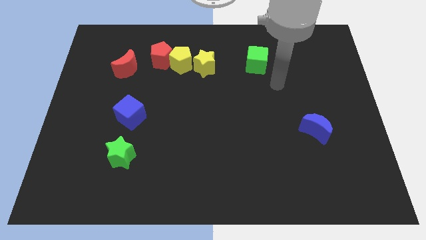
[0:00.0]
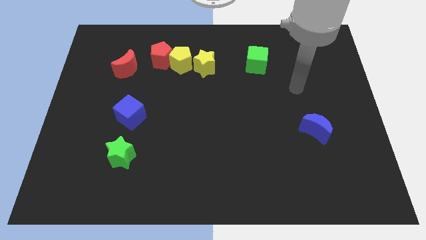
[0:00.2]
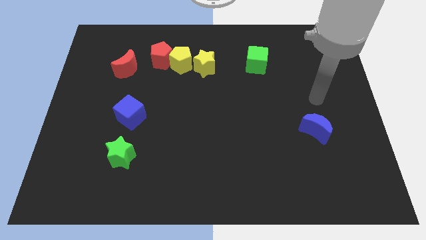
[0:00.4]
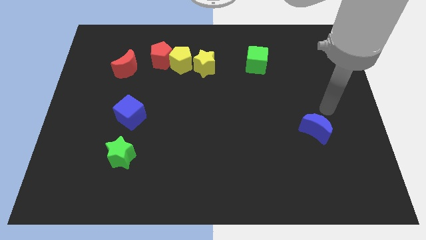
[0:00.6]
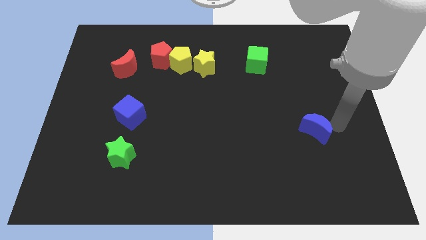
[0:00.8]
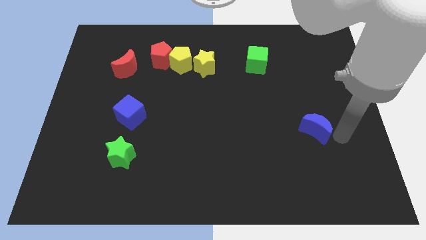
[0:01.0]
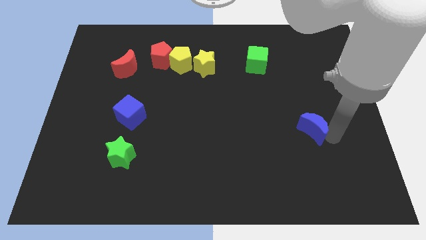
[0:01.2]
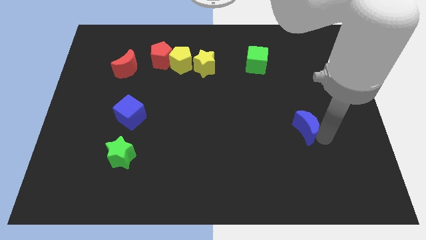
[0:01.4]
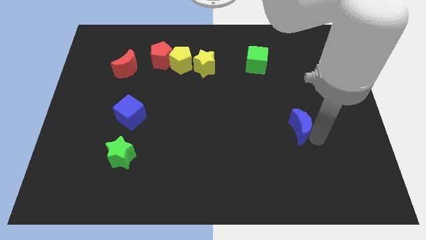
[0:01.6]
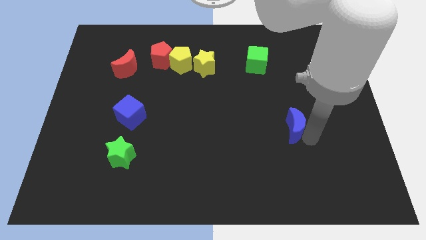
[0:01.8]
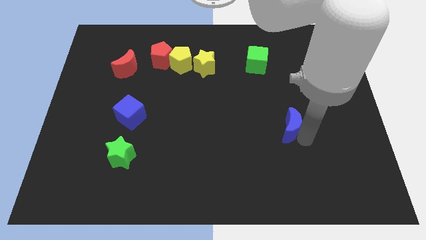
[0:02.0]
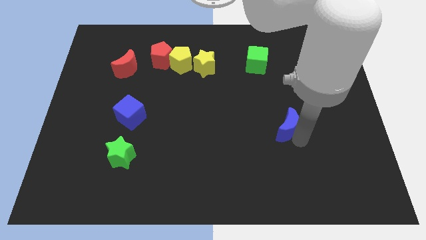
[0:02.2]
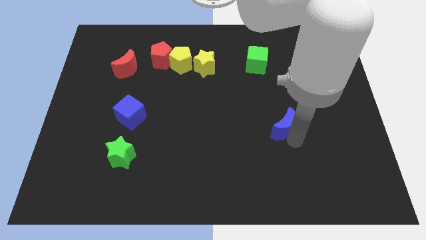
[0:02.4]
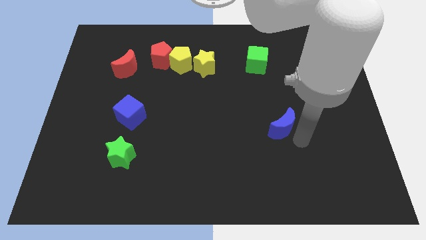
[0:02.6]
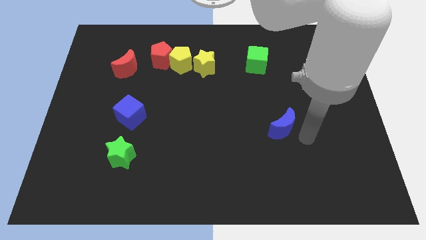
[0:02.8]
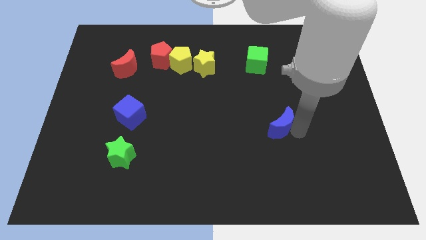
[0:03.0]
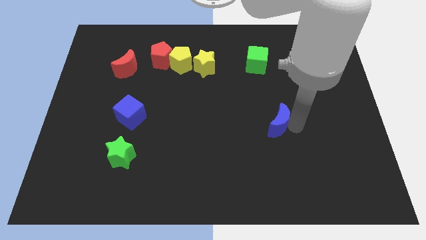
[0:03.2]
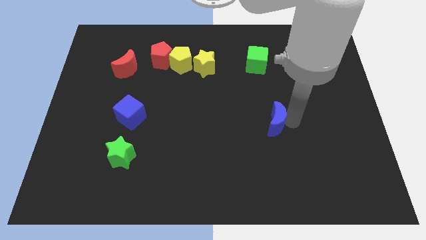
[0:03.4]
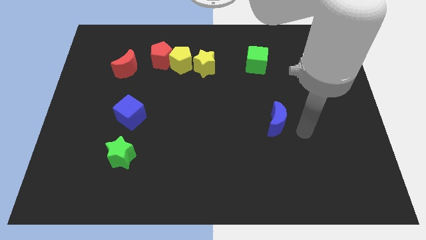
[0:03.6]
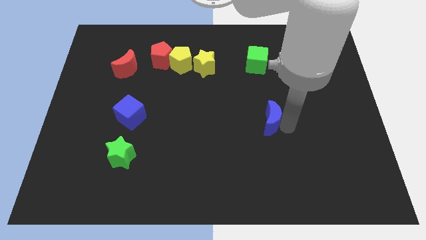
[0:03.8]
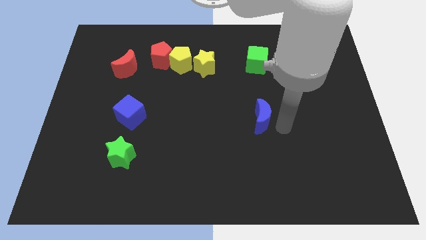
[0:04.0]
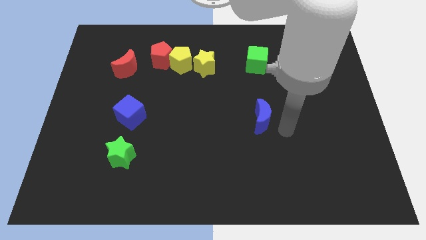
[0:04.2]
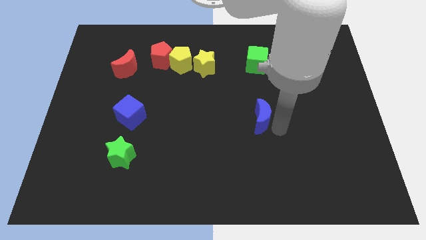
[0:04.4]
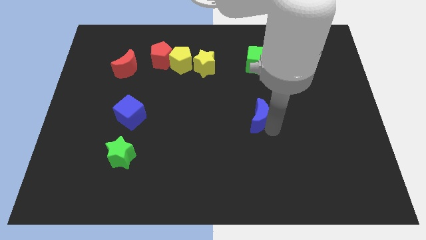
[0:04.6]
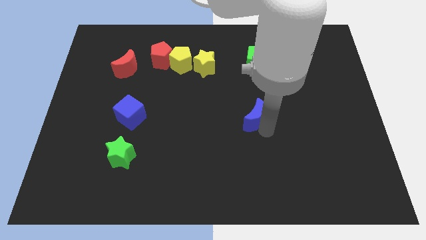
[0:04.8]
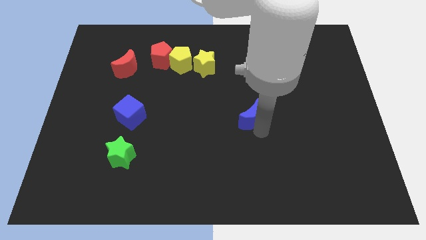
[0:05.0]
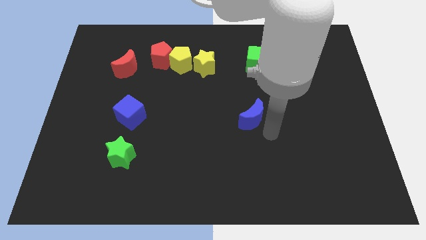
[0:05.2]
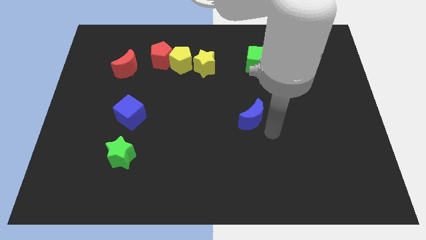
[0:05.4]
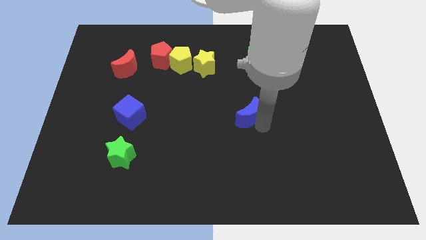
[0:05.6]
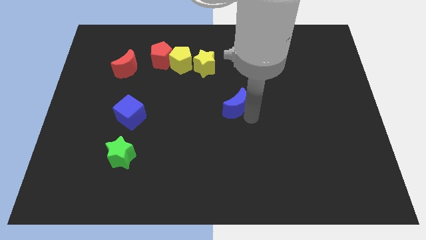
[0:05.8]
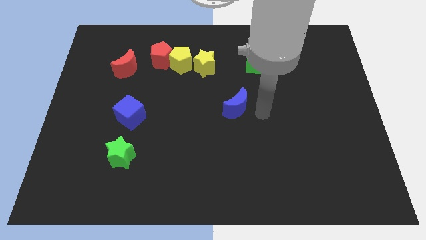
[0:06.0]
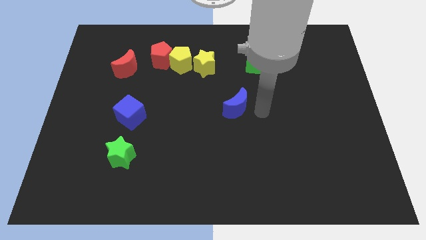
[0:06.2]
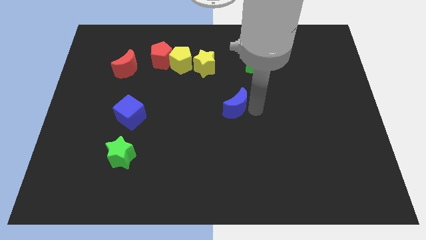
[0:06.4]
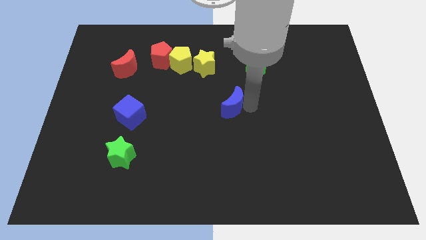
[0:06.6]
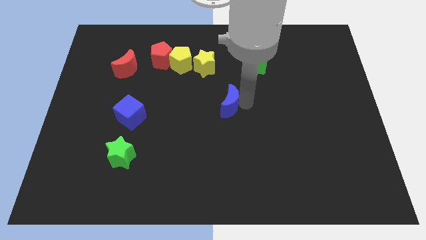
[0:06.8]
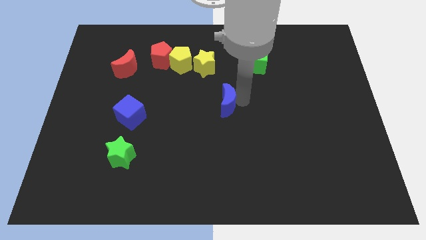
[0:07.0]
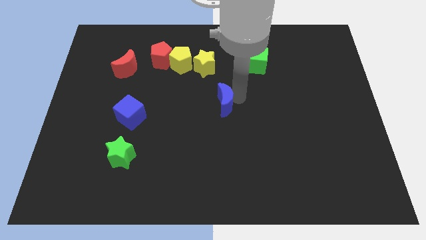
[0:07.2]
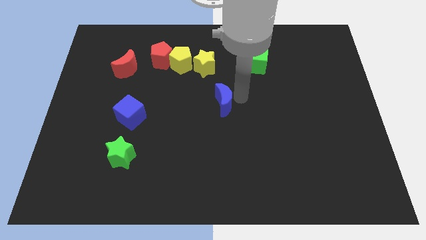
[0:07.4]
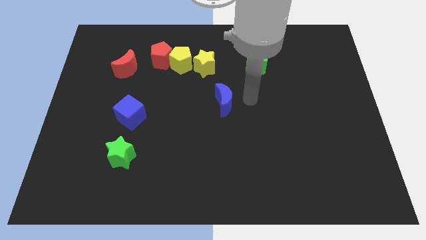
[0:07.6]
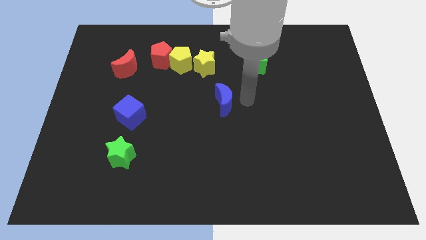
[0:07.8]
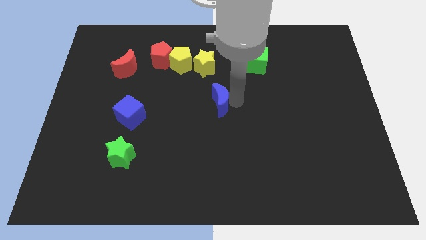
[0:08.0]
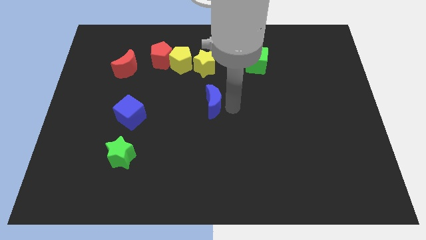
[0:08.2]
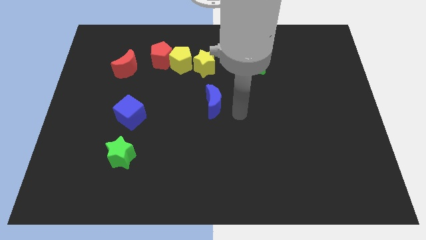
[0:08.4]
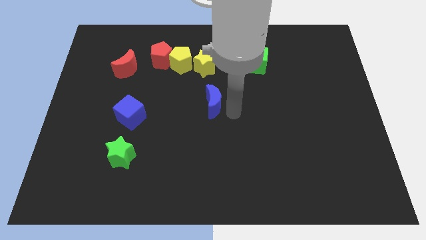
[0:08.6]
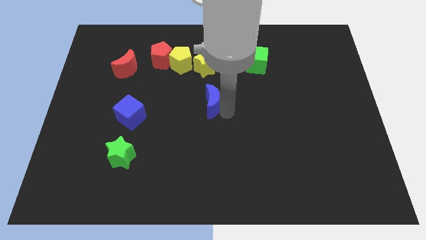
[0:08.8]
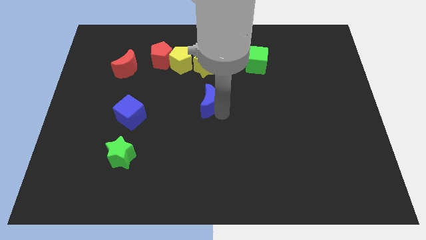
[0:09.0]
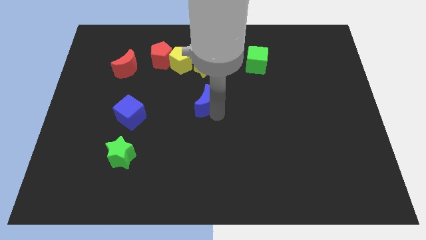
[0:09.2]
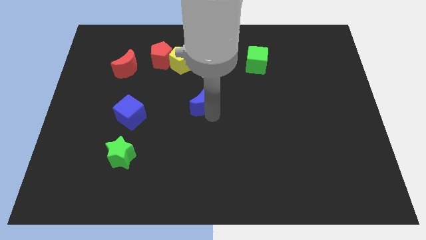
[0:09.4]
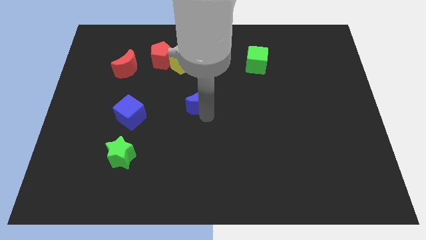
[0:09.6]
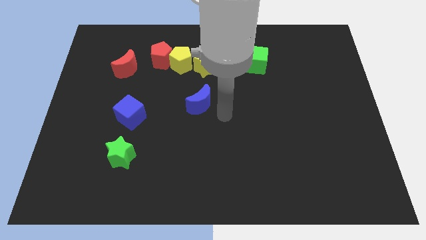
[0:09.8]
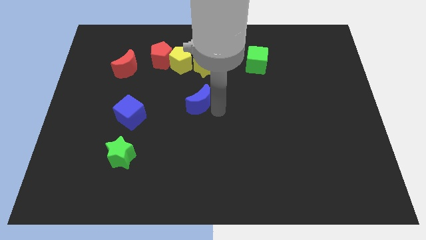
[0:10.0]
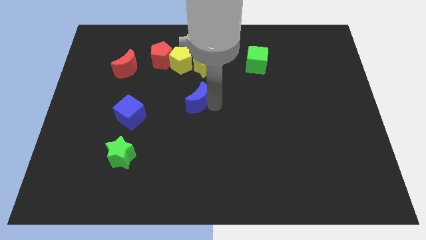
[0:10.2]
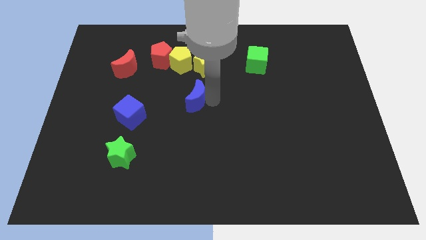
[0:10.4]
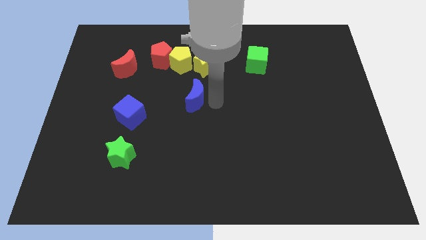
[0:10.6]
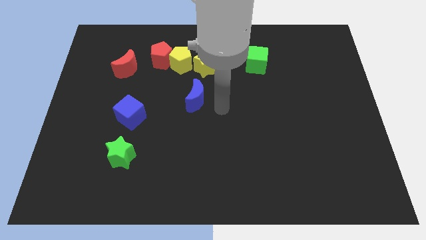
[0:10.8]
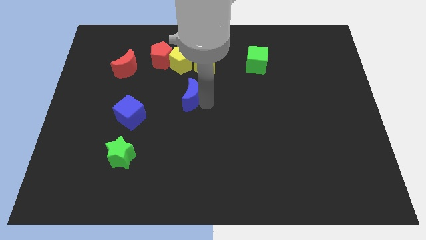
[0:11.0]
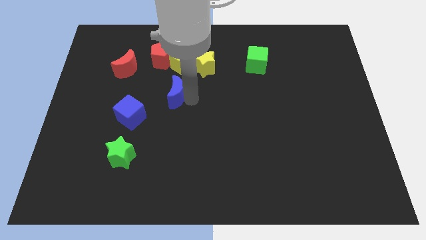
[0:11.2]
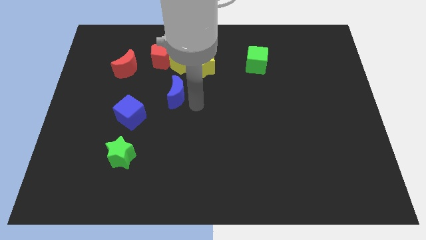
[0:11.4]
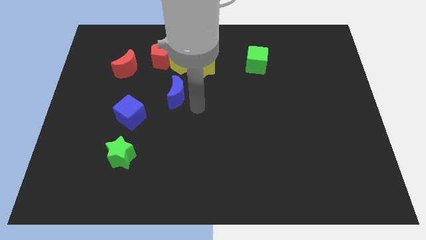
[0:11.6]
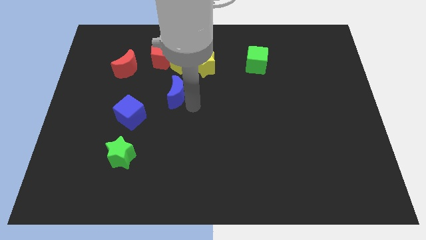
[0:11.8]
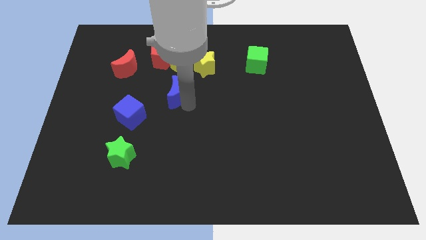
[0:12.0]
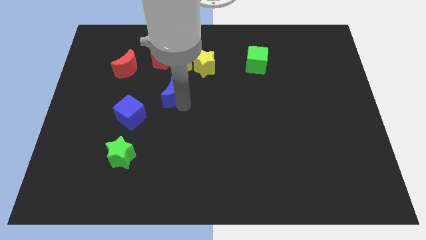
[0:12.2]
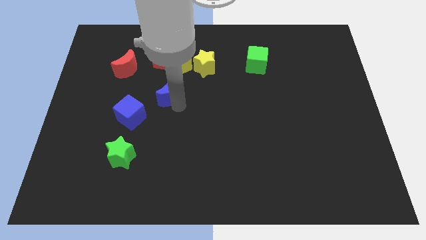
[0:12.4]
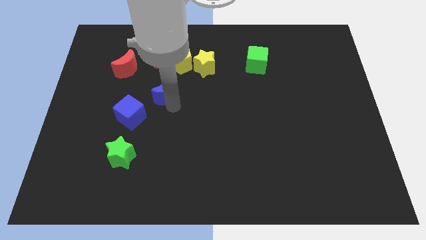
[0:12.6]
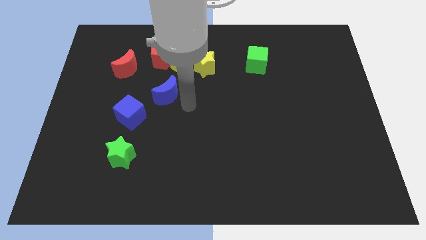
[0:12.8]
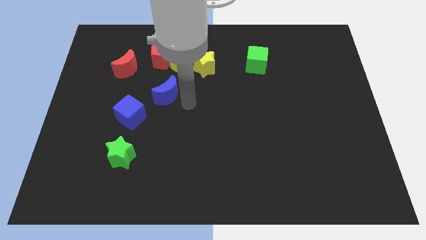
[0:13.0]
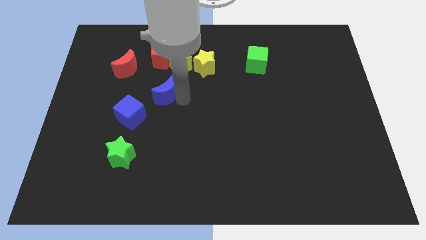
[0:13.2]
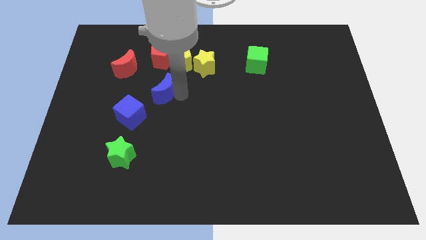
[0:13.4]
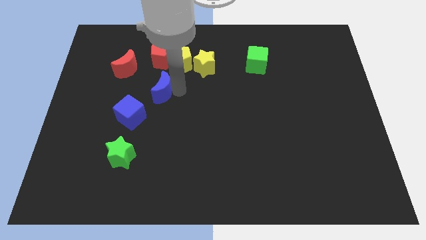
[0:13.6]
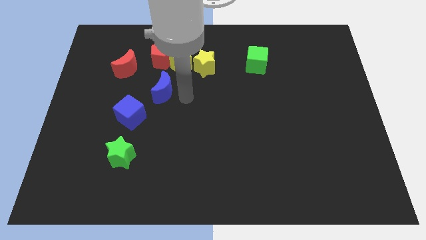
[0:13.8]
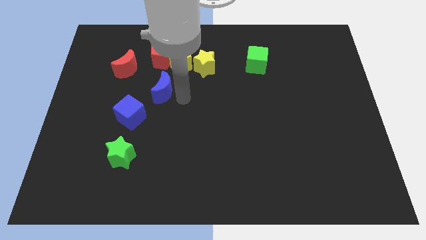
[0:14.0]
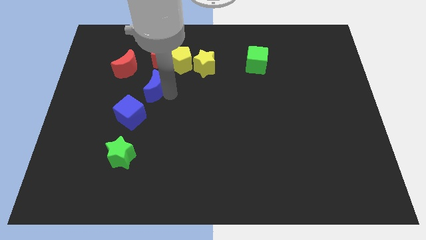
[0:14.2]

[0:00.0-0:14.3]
push the blue moon above the blue cube

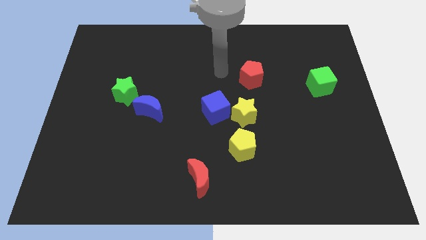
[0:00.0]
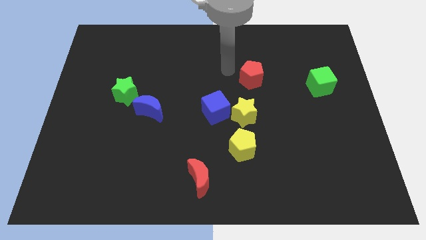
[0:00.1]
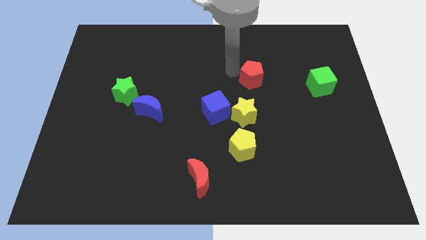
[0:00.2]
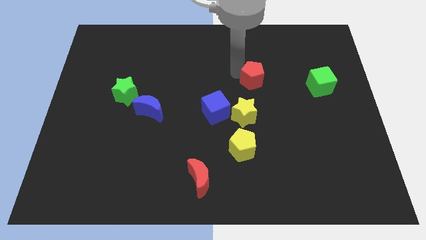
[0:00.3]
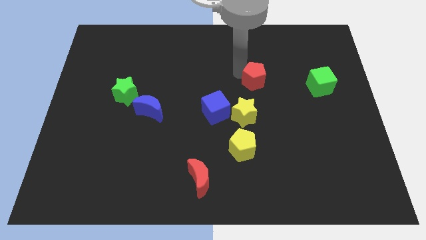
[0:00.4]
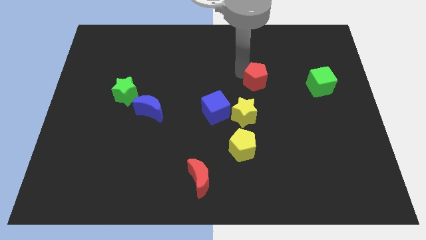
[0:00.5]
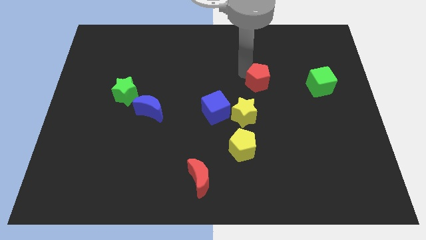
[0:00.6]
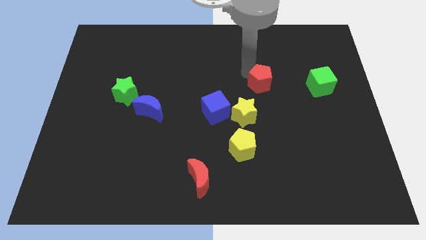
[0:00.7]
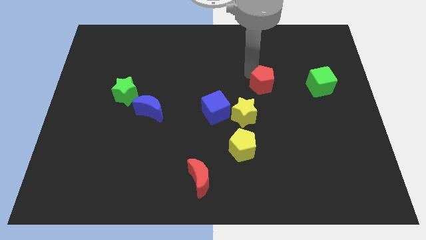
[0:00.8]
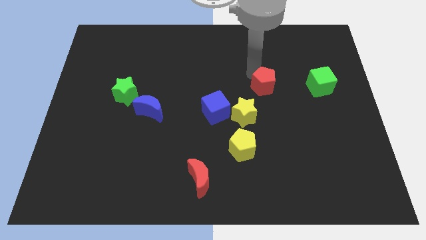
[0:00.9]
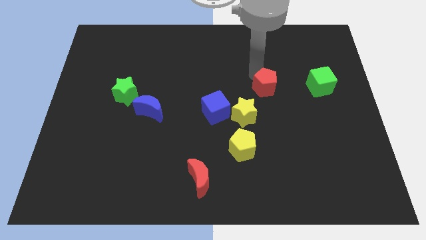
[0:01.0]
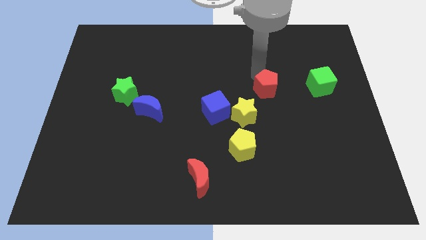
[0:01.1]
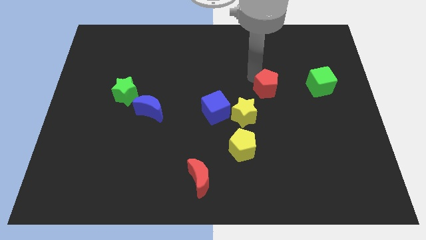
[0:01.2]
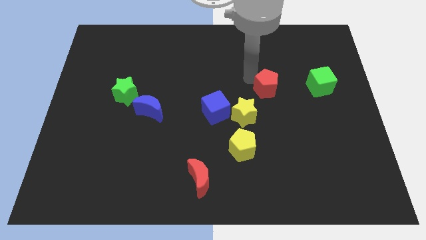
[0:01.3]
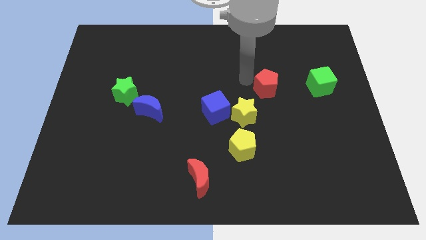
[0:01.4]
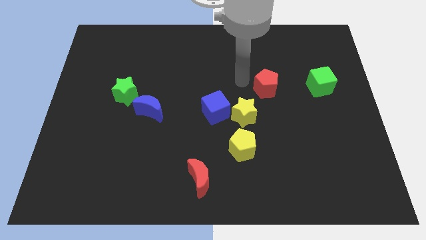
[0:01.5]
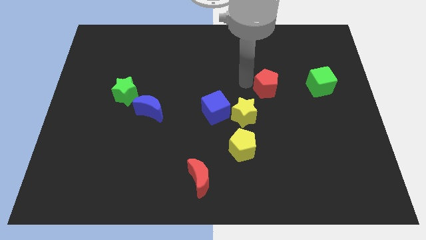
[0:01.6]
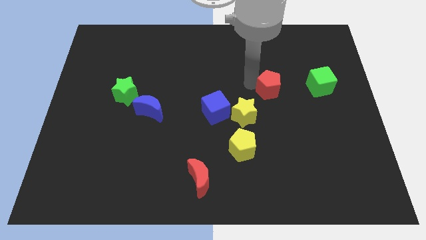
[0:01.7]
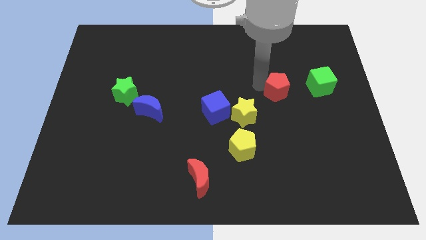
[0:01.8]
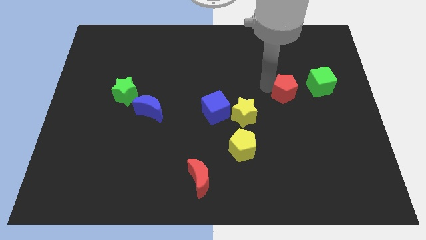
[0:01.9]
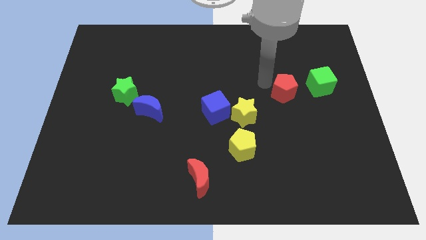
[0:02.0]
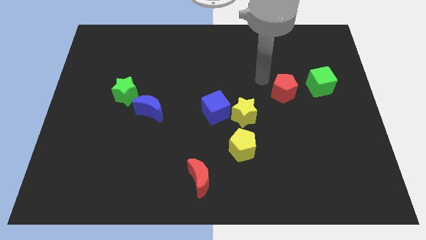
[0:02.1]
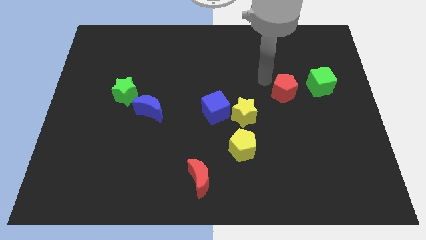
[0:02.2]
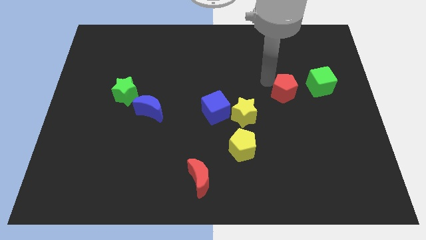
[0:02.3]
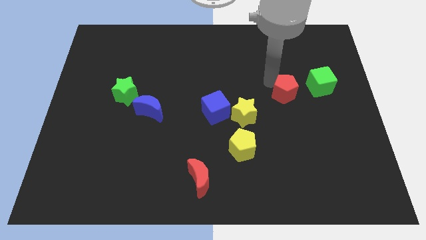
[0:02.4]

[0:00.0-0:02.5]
put the red pentagon diagonally down and to the left of the green cube
